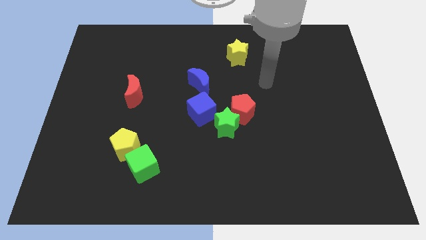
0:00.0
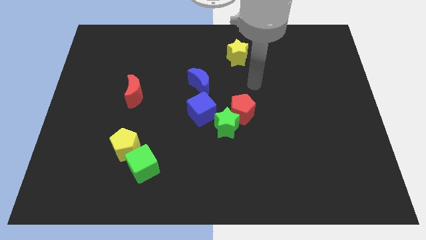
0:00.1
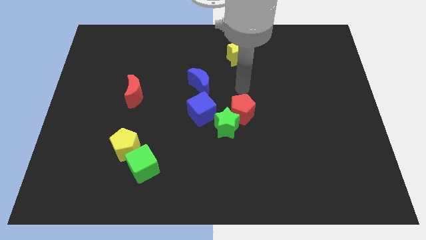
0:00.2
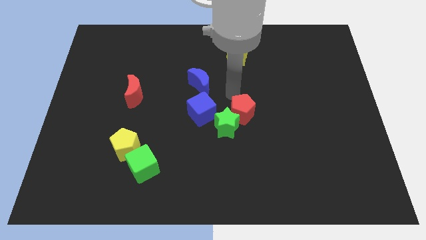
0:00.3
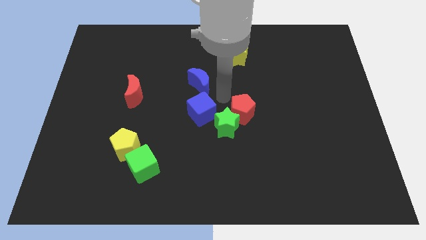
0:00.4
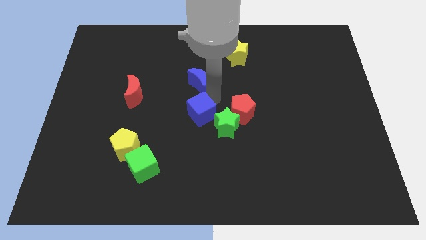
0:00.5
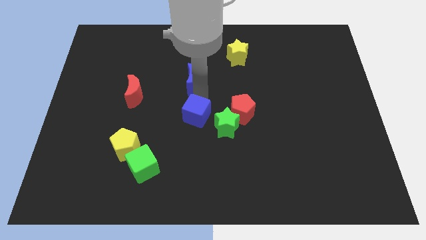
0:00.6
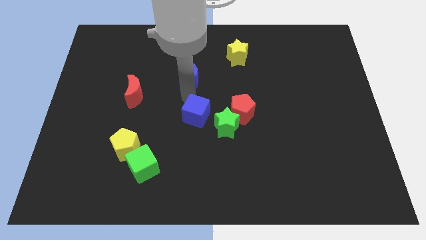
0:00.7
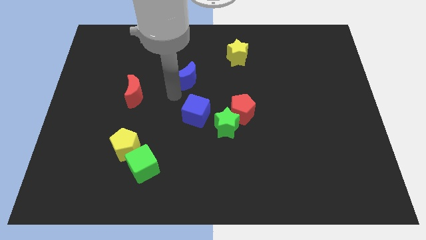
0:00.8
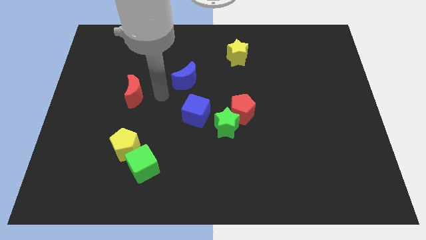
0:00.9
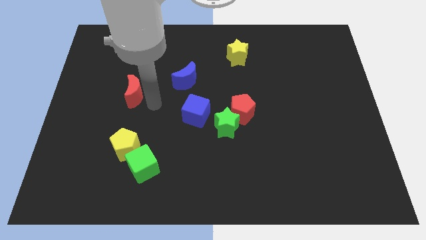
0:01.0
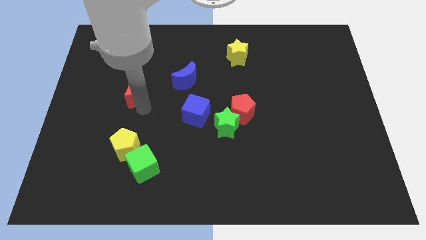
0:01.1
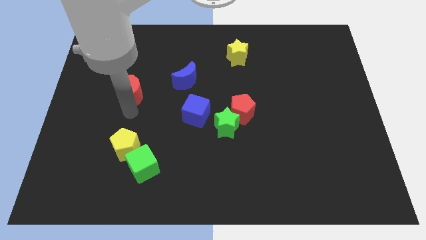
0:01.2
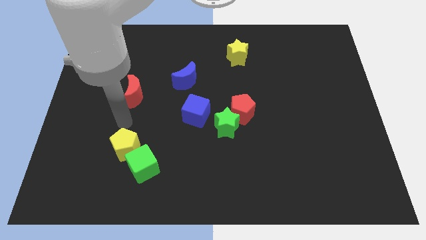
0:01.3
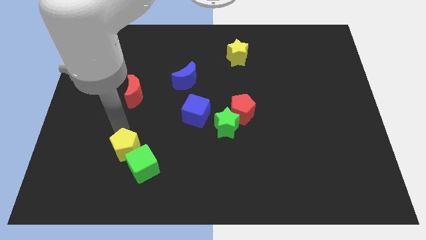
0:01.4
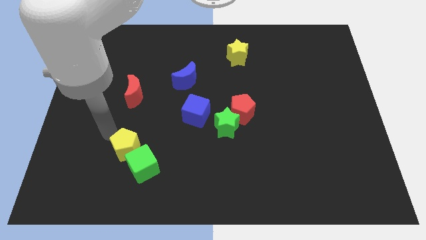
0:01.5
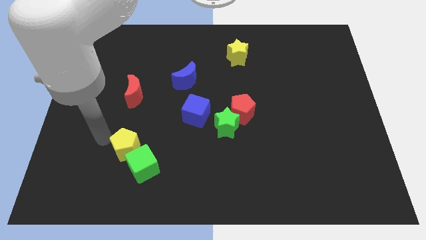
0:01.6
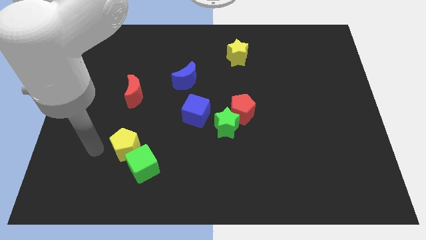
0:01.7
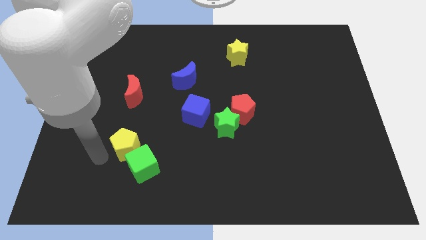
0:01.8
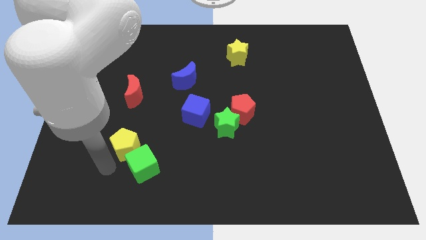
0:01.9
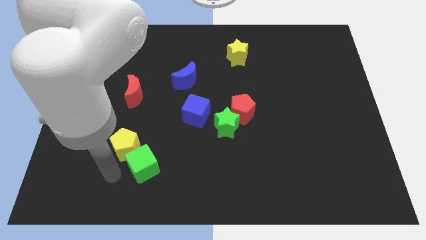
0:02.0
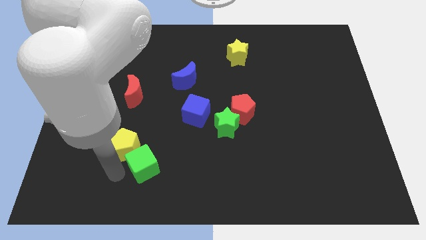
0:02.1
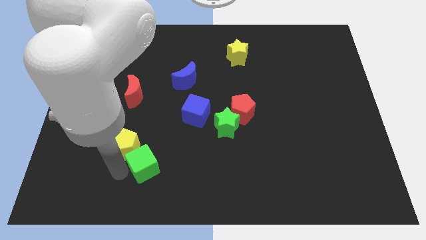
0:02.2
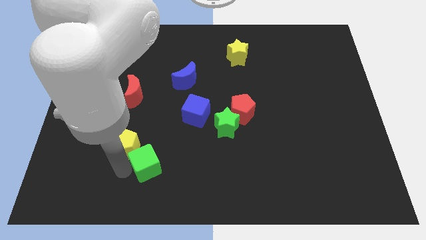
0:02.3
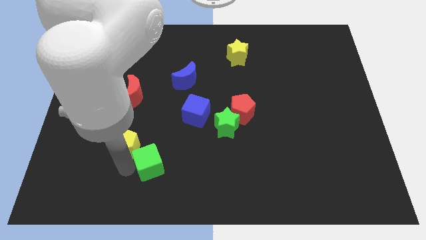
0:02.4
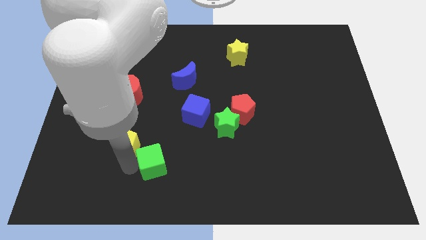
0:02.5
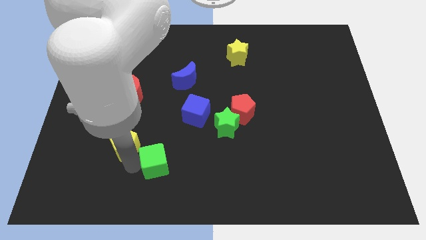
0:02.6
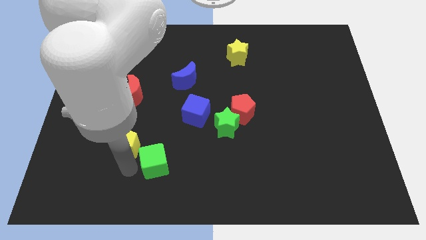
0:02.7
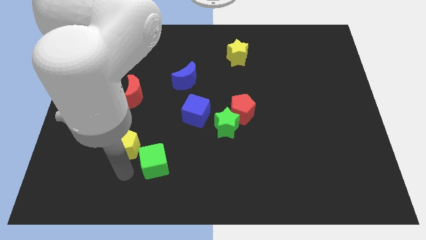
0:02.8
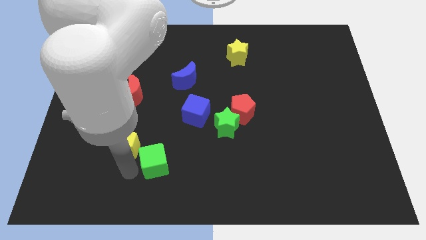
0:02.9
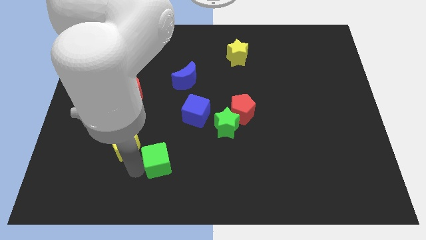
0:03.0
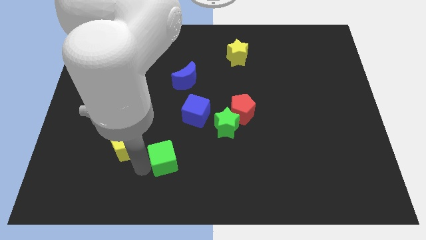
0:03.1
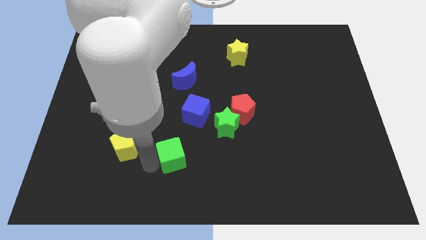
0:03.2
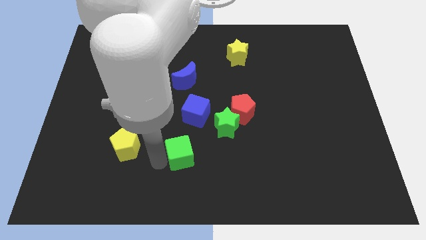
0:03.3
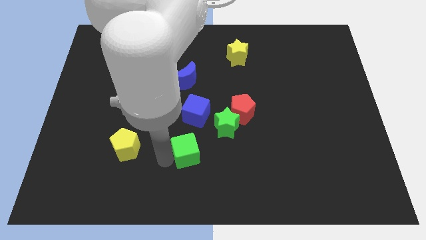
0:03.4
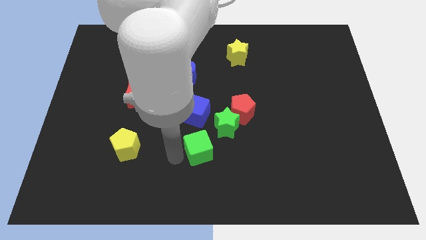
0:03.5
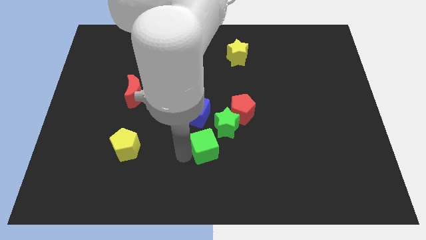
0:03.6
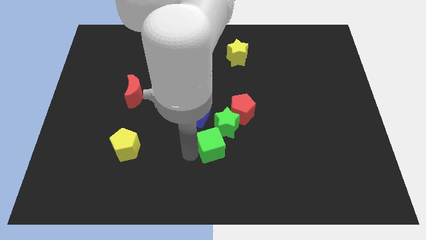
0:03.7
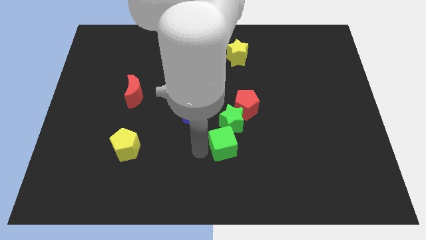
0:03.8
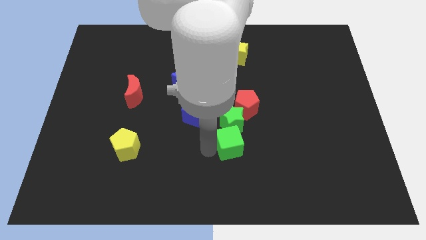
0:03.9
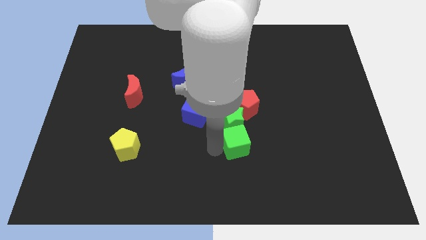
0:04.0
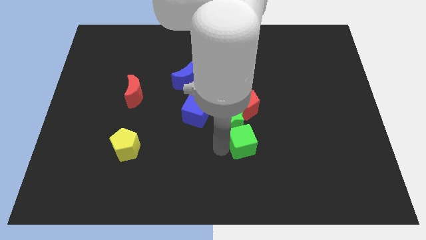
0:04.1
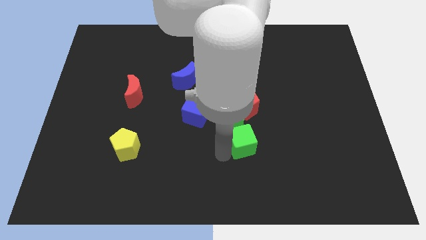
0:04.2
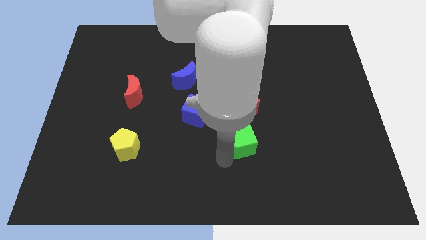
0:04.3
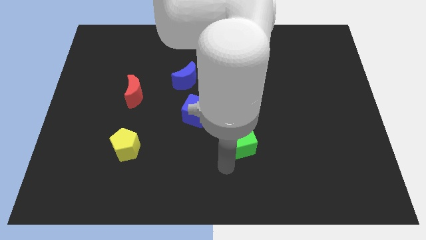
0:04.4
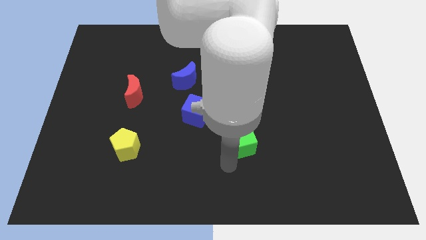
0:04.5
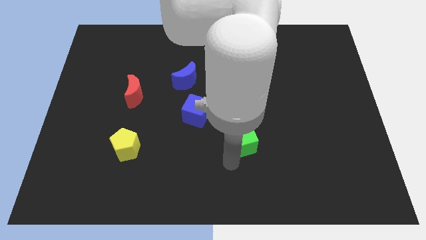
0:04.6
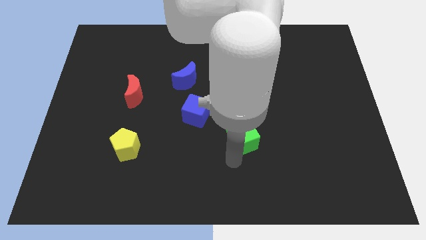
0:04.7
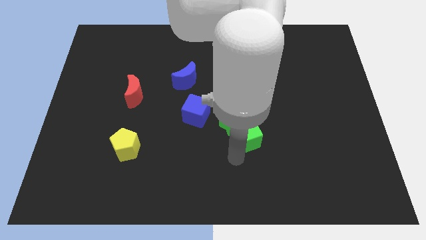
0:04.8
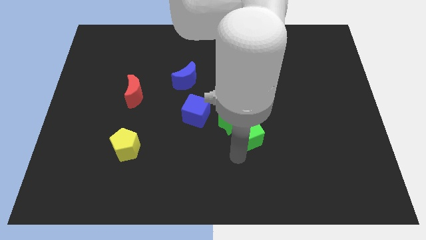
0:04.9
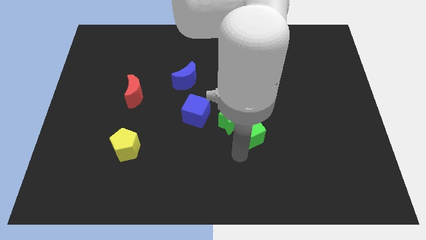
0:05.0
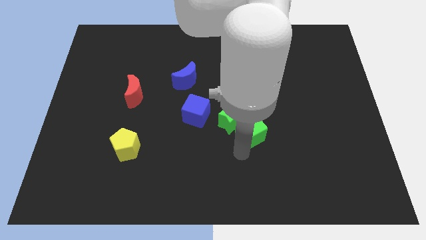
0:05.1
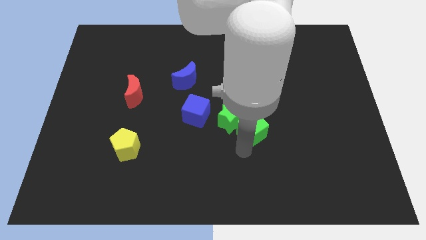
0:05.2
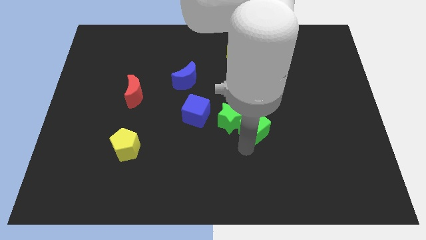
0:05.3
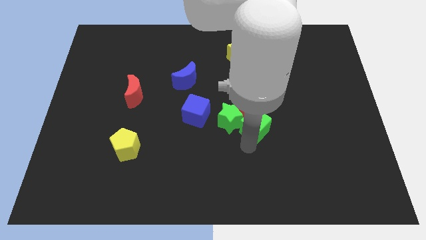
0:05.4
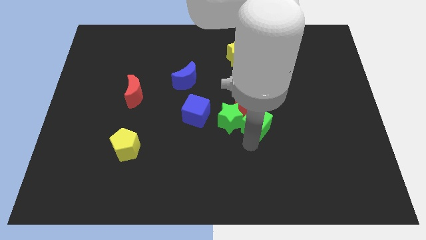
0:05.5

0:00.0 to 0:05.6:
move the green cube upwards and right

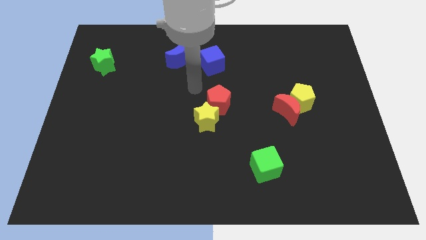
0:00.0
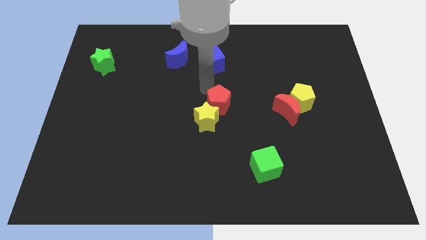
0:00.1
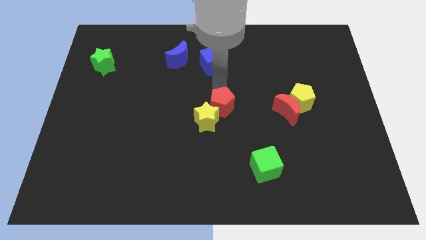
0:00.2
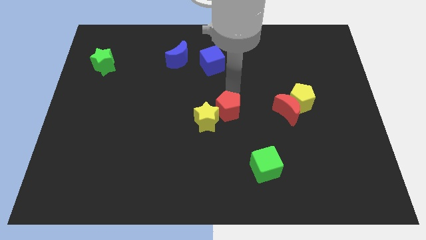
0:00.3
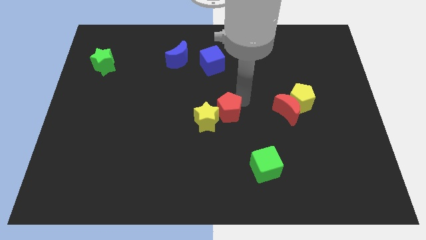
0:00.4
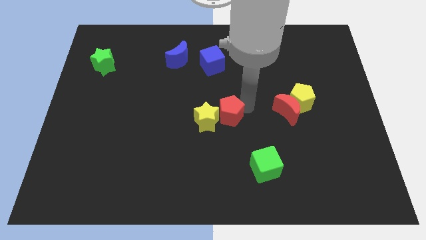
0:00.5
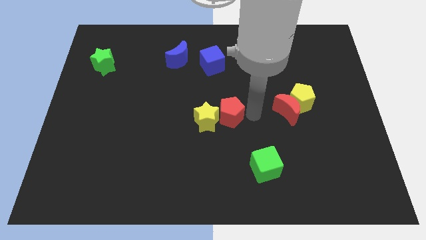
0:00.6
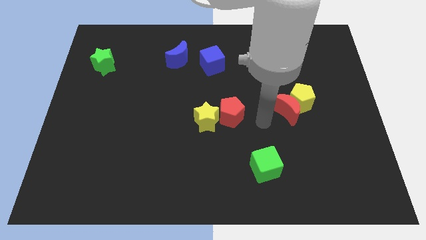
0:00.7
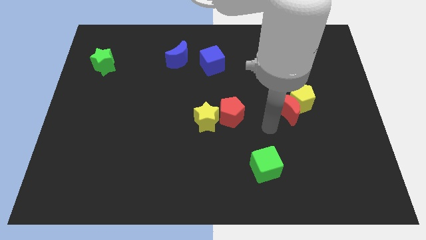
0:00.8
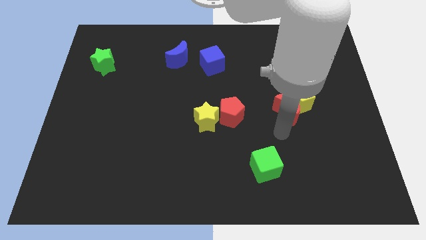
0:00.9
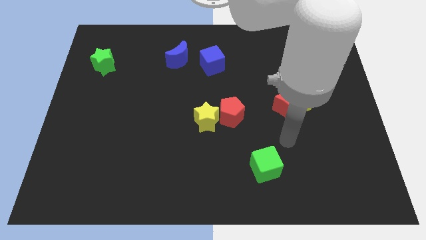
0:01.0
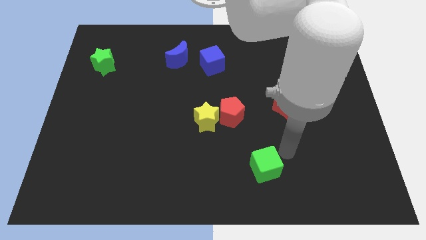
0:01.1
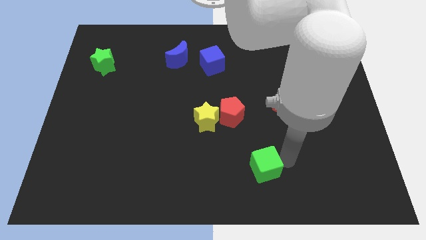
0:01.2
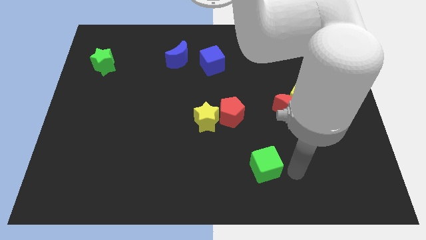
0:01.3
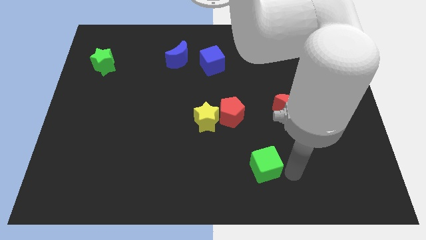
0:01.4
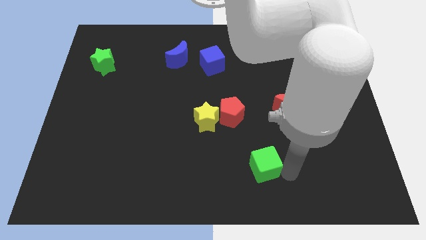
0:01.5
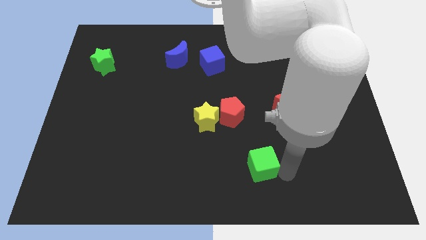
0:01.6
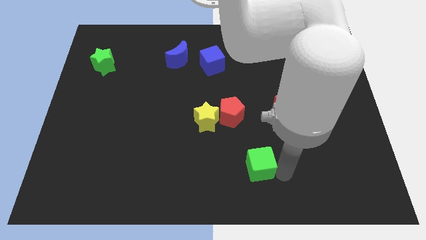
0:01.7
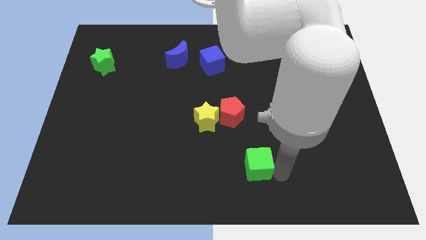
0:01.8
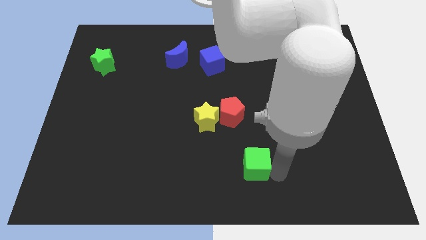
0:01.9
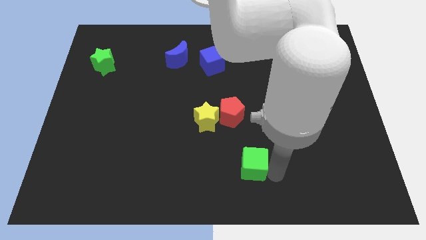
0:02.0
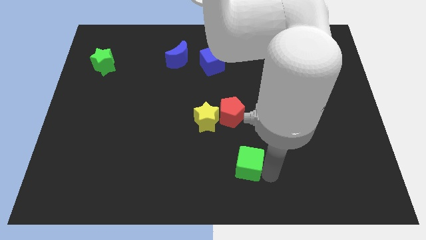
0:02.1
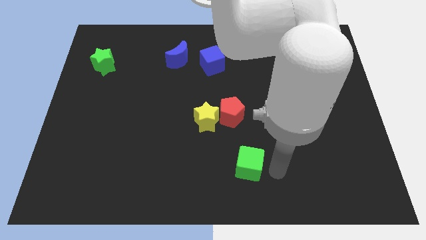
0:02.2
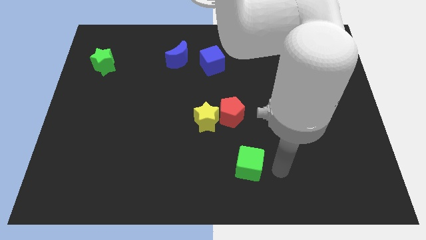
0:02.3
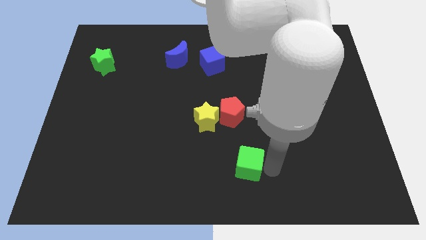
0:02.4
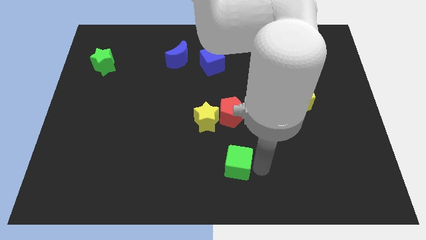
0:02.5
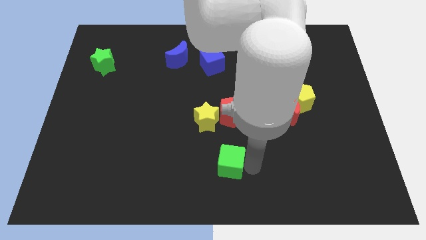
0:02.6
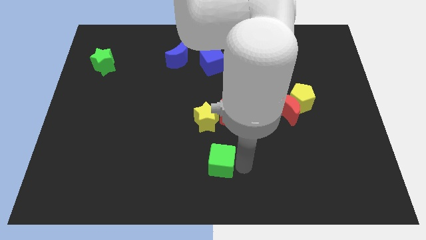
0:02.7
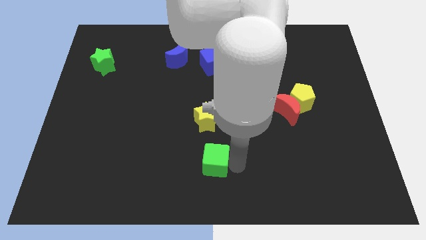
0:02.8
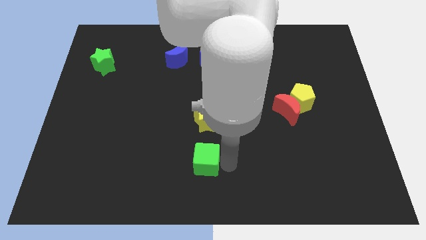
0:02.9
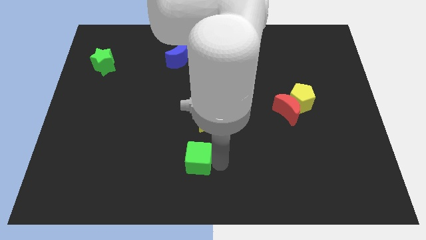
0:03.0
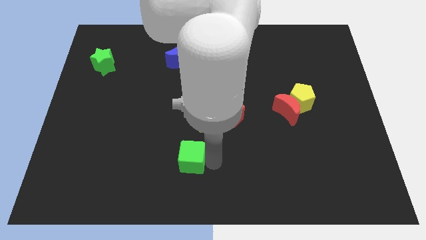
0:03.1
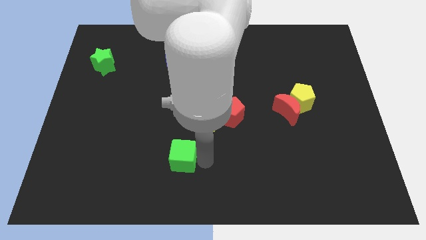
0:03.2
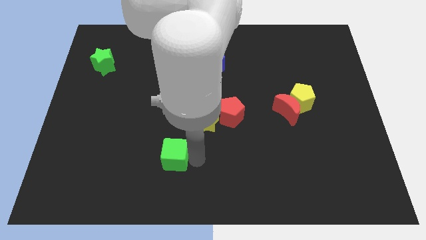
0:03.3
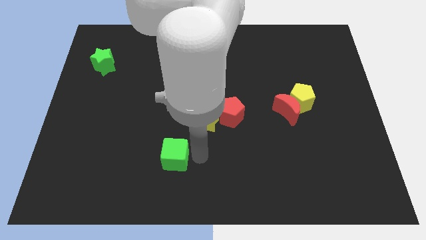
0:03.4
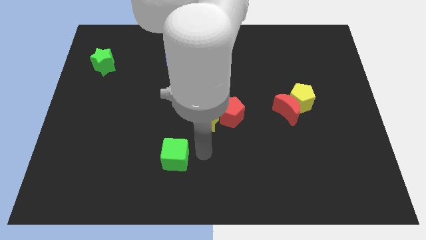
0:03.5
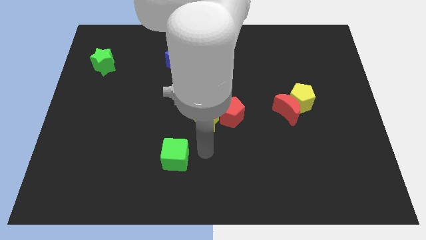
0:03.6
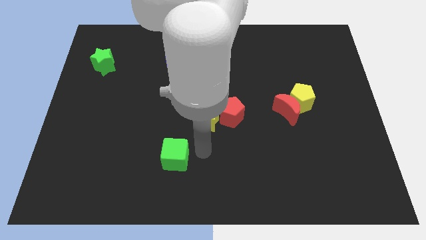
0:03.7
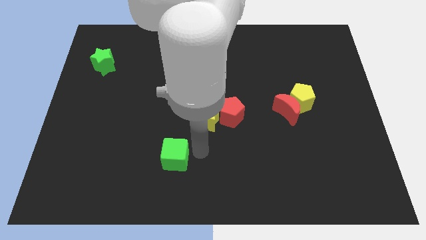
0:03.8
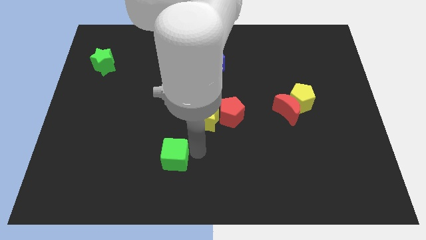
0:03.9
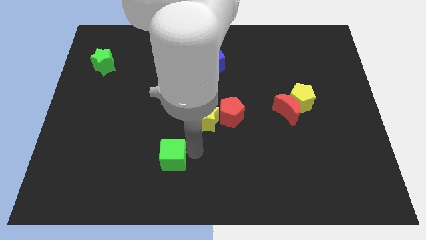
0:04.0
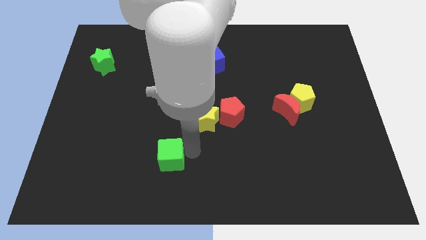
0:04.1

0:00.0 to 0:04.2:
push the green cube left
